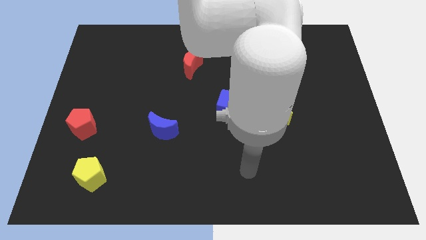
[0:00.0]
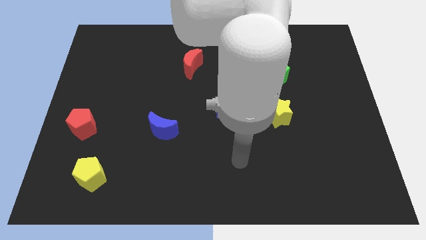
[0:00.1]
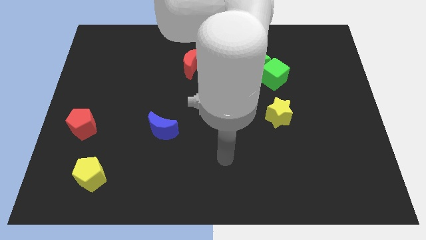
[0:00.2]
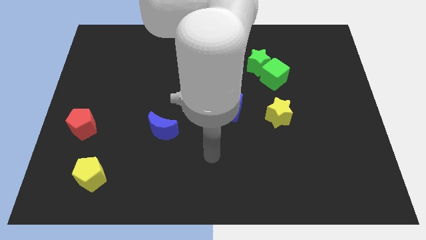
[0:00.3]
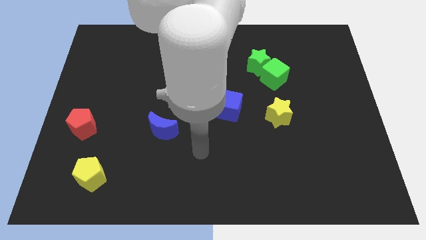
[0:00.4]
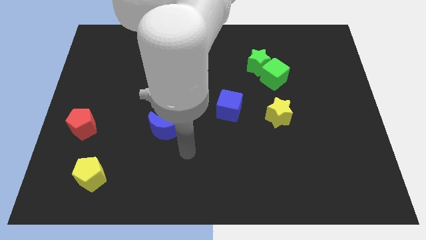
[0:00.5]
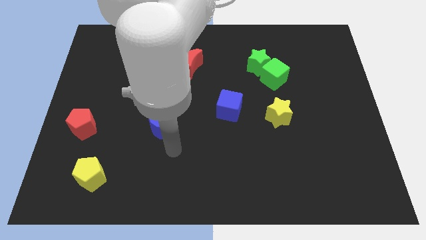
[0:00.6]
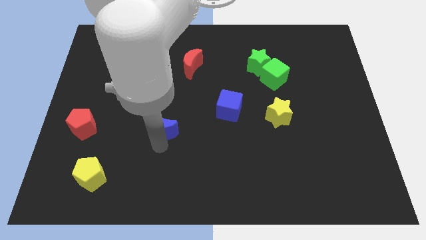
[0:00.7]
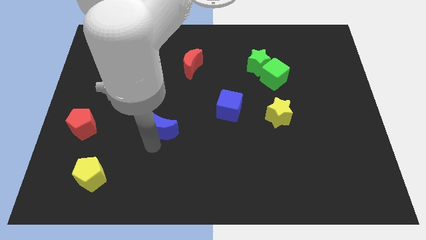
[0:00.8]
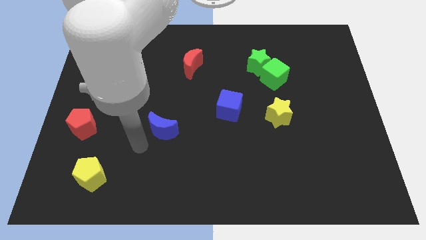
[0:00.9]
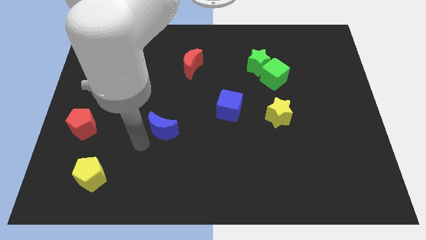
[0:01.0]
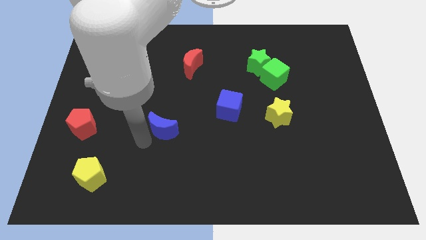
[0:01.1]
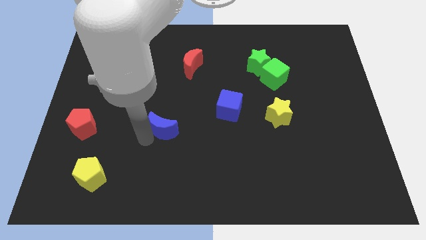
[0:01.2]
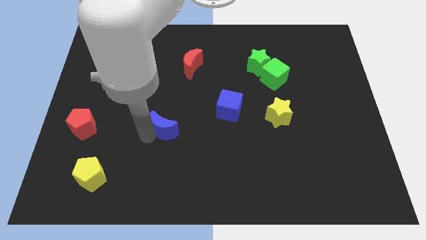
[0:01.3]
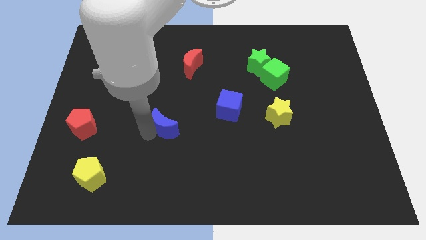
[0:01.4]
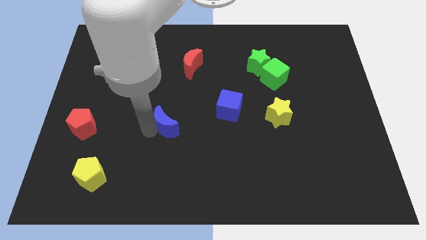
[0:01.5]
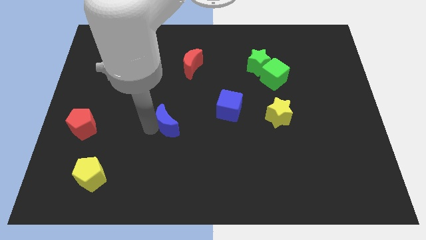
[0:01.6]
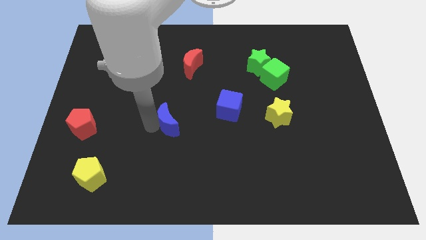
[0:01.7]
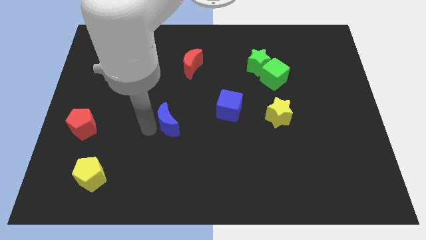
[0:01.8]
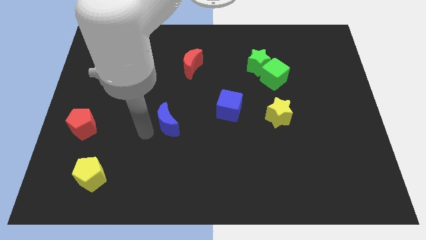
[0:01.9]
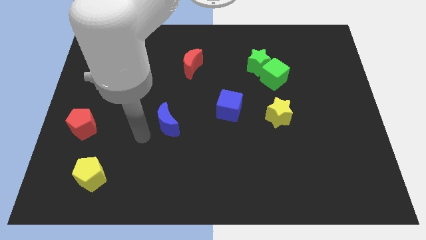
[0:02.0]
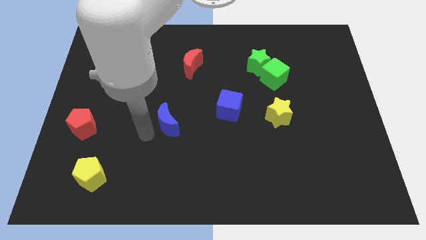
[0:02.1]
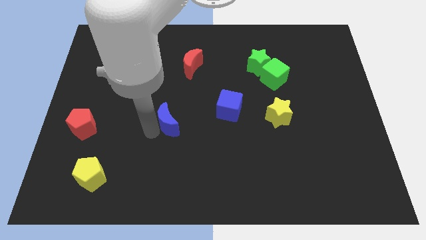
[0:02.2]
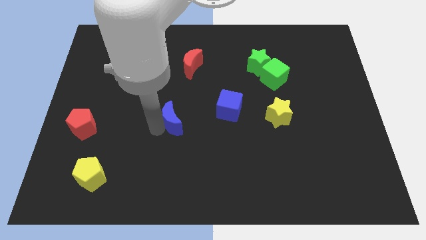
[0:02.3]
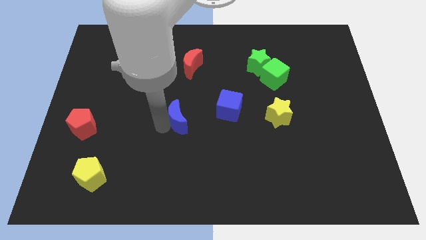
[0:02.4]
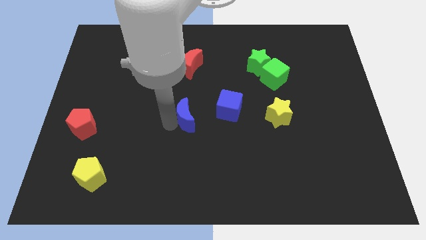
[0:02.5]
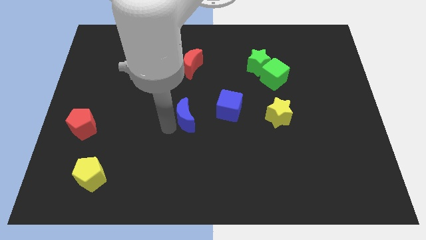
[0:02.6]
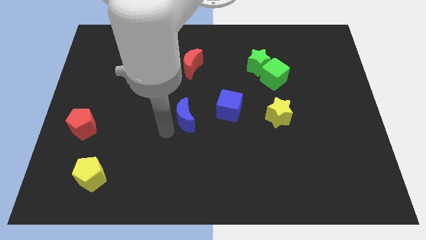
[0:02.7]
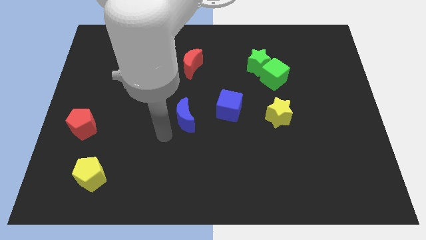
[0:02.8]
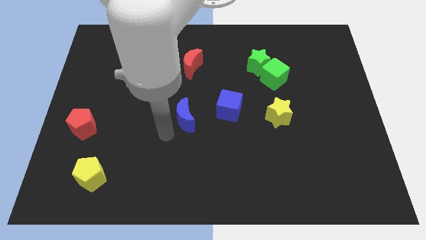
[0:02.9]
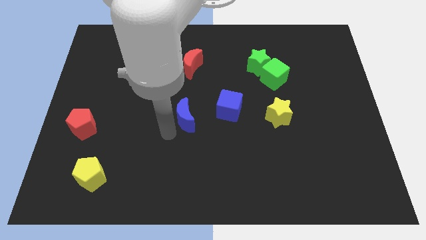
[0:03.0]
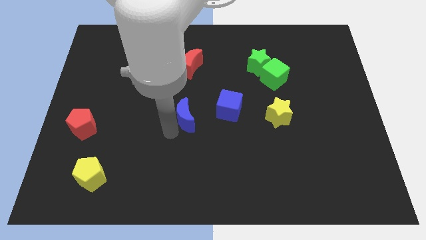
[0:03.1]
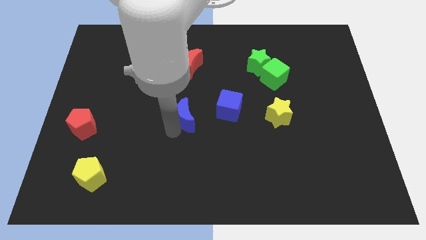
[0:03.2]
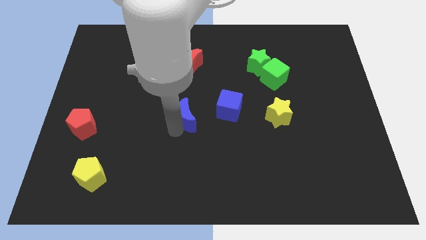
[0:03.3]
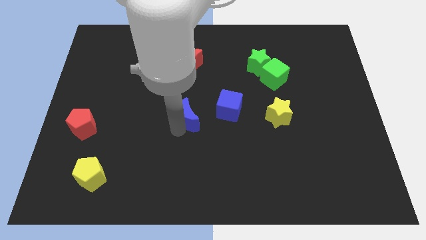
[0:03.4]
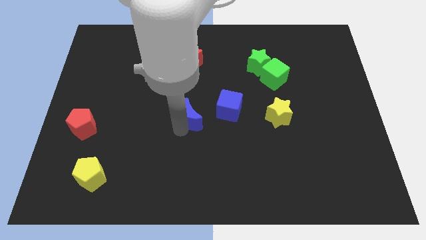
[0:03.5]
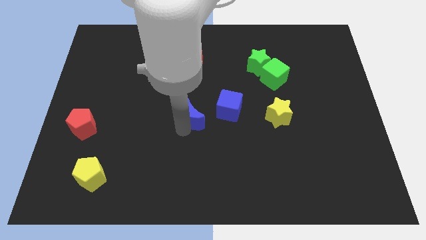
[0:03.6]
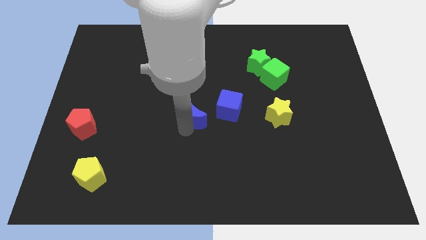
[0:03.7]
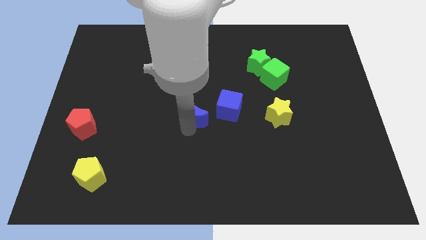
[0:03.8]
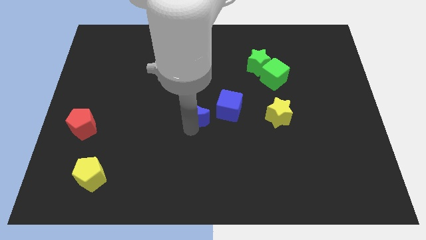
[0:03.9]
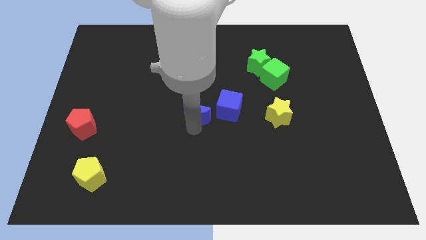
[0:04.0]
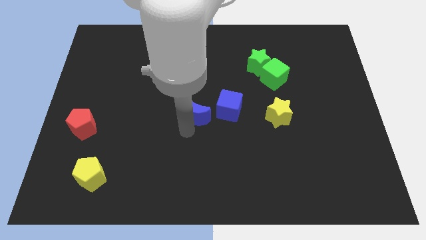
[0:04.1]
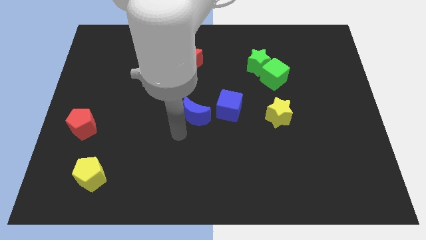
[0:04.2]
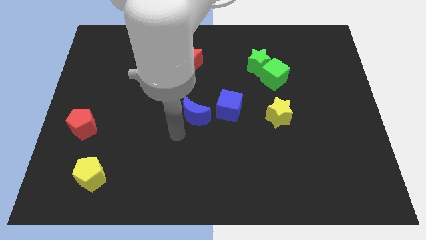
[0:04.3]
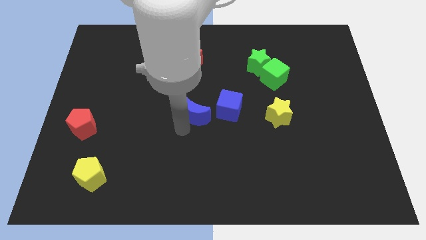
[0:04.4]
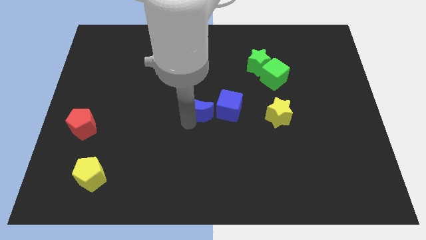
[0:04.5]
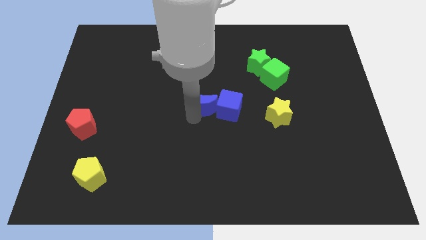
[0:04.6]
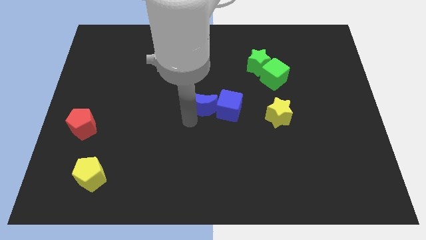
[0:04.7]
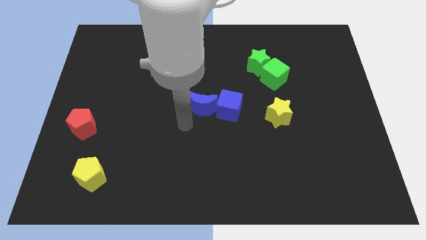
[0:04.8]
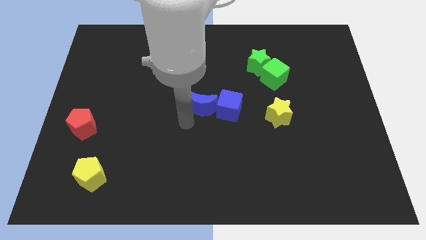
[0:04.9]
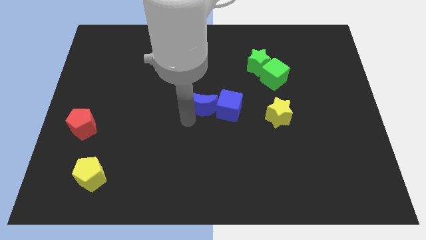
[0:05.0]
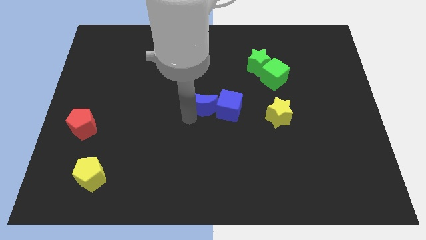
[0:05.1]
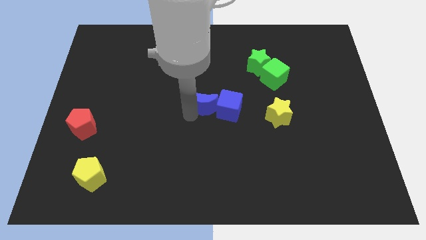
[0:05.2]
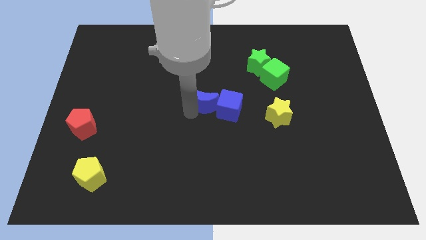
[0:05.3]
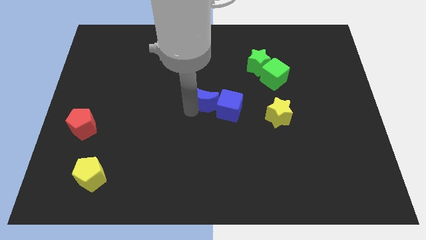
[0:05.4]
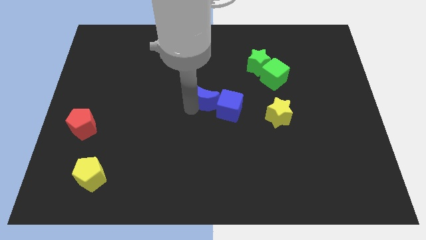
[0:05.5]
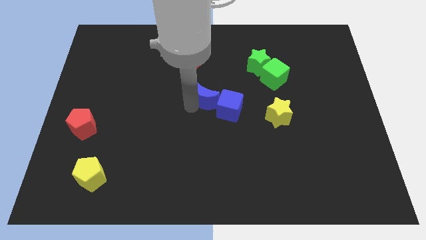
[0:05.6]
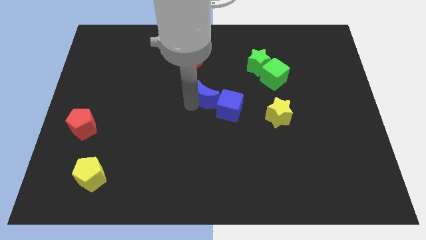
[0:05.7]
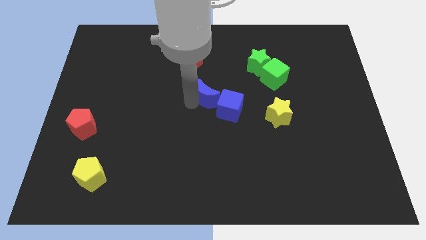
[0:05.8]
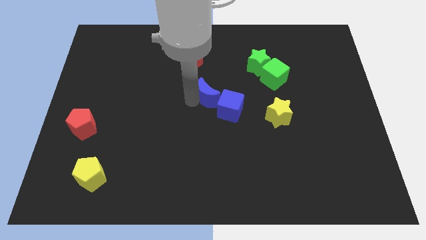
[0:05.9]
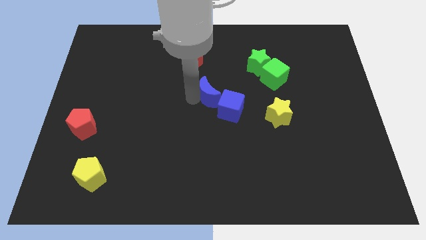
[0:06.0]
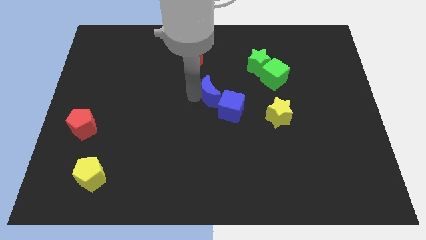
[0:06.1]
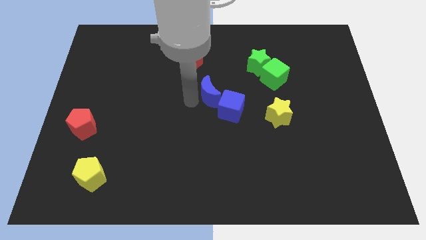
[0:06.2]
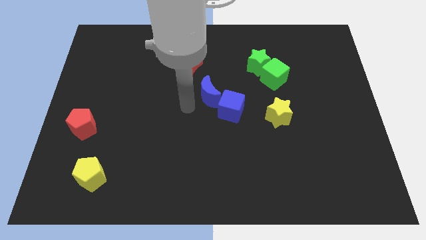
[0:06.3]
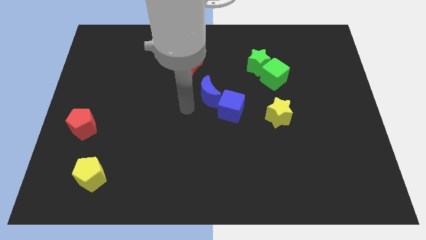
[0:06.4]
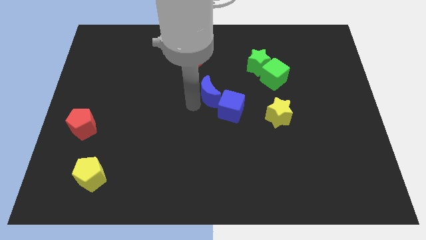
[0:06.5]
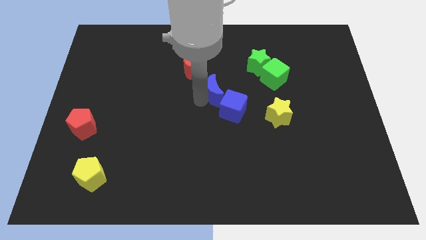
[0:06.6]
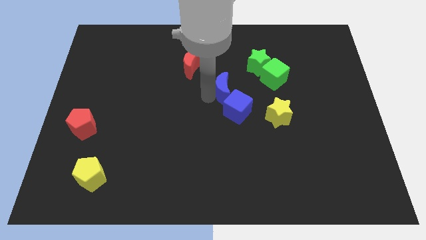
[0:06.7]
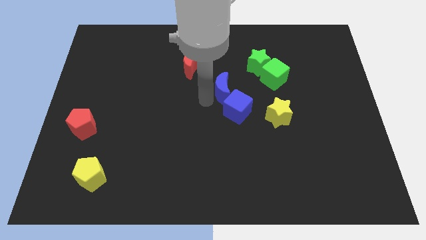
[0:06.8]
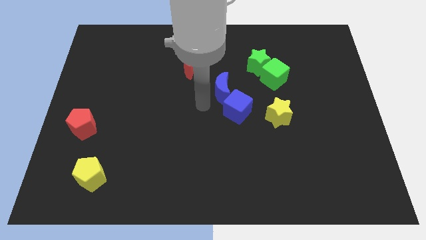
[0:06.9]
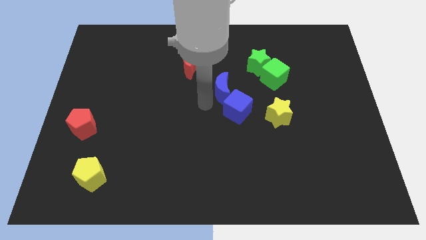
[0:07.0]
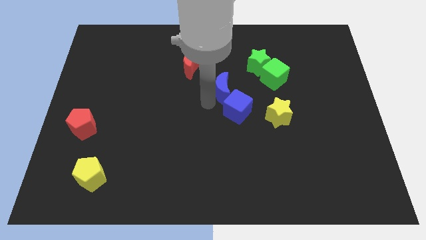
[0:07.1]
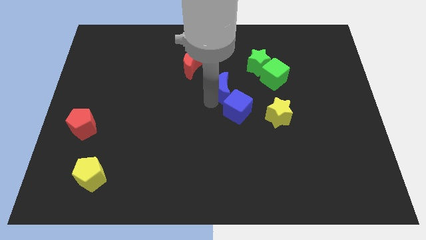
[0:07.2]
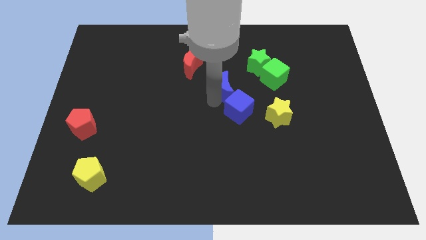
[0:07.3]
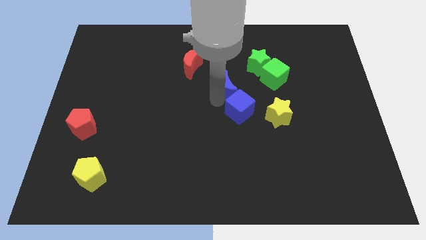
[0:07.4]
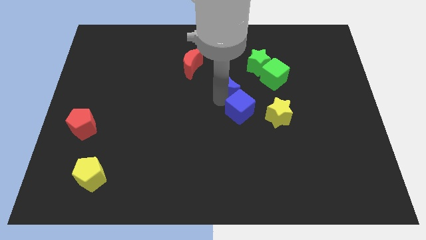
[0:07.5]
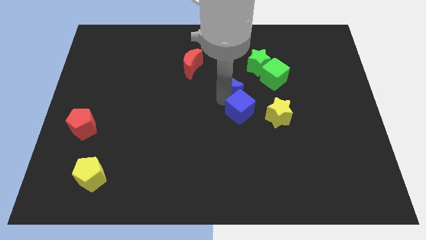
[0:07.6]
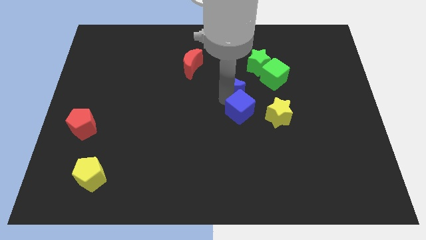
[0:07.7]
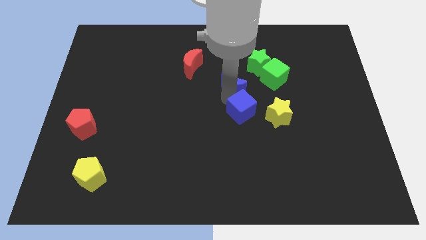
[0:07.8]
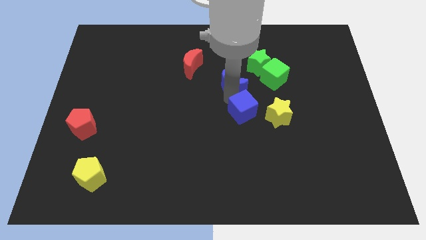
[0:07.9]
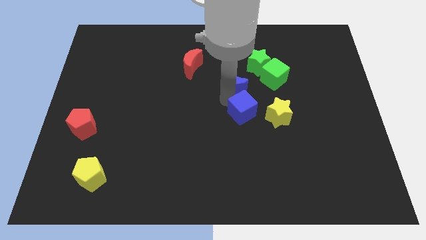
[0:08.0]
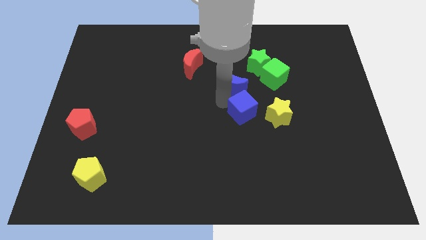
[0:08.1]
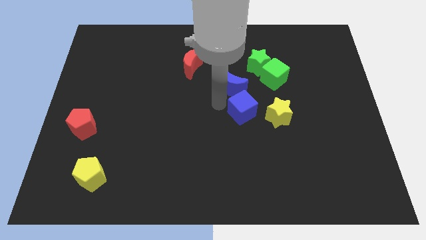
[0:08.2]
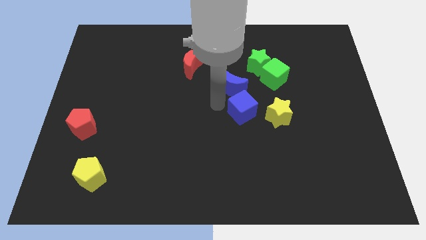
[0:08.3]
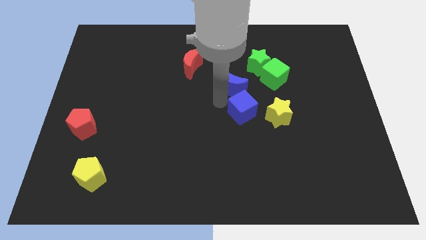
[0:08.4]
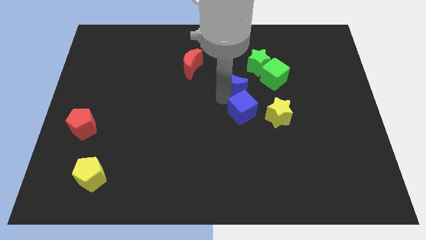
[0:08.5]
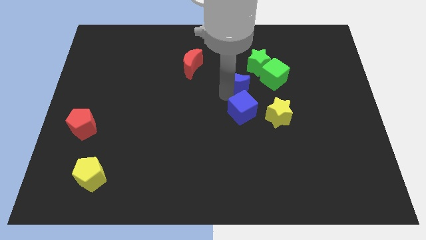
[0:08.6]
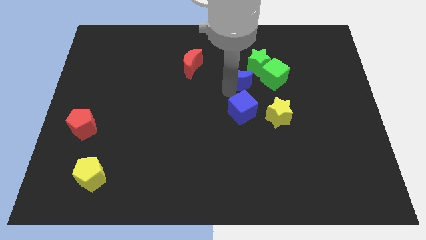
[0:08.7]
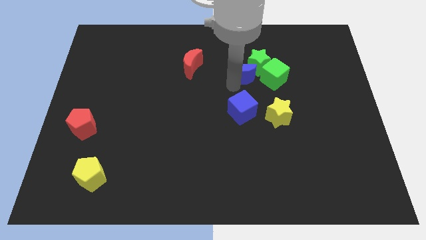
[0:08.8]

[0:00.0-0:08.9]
move the blue moon to the green star
